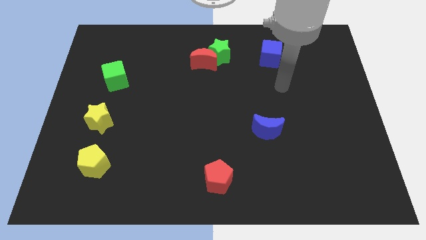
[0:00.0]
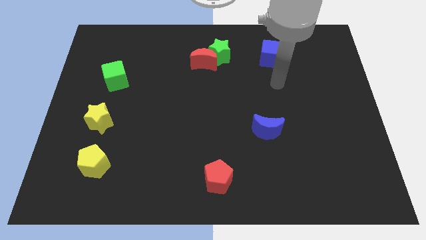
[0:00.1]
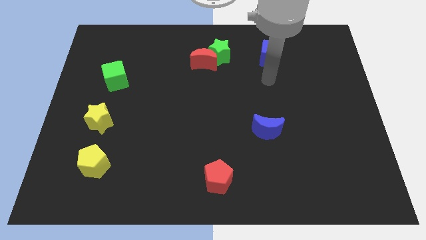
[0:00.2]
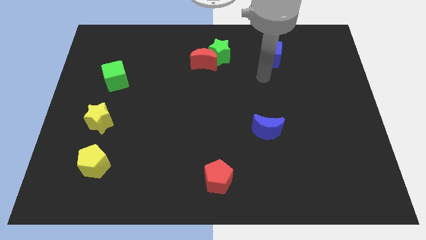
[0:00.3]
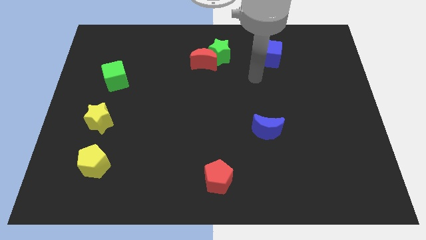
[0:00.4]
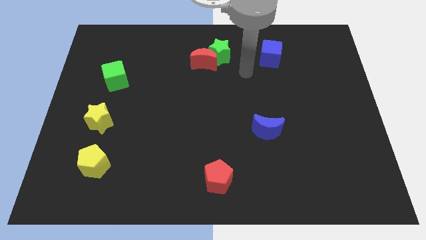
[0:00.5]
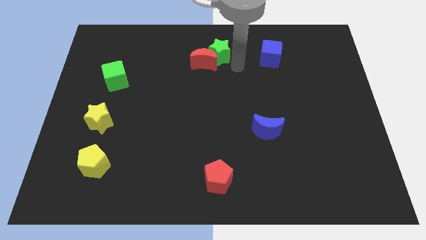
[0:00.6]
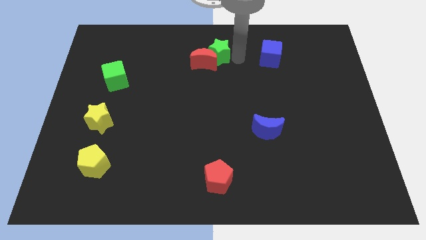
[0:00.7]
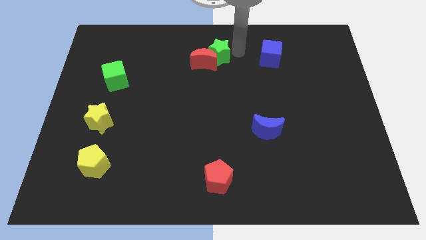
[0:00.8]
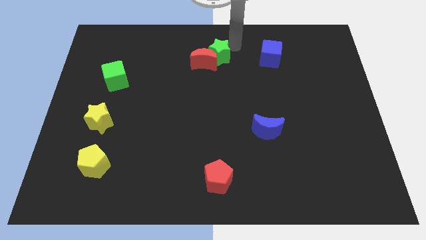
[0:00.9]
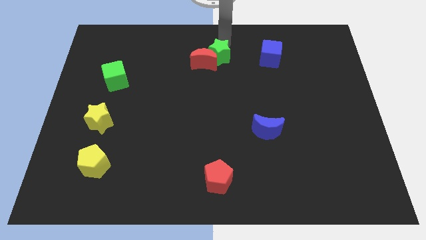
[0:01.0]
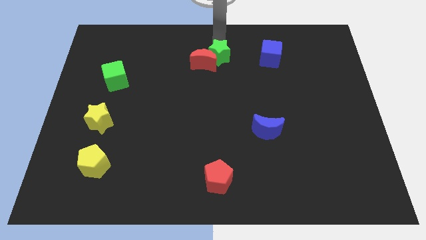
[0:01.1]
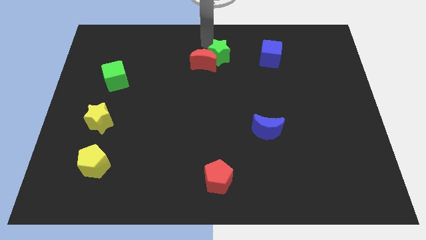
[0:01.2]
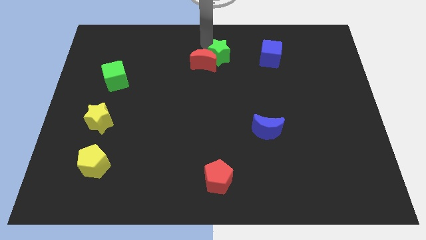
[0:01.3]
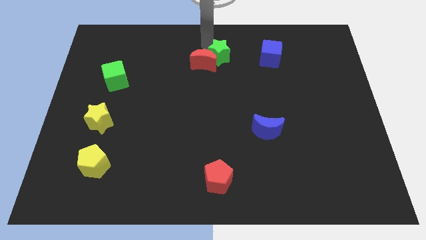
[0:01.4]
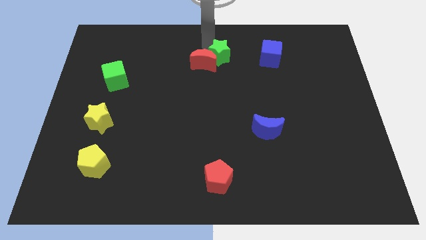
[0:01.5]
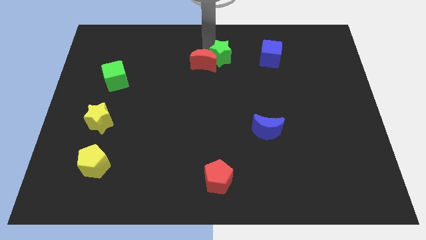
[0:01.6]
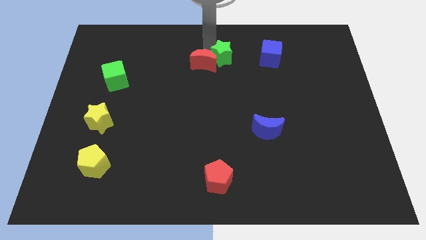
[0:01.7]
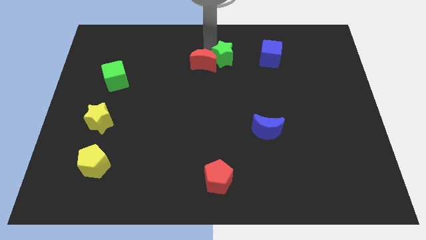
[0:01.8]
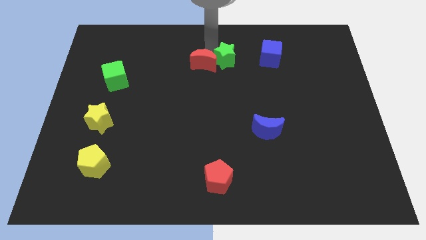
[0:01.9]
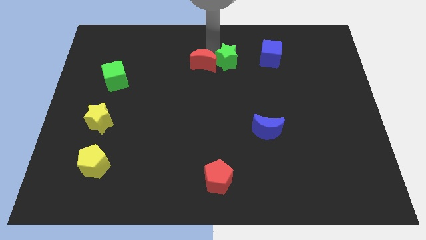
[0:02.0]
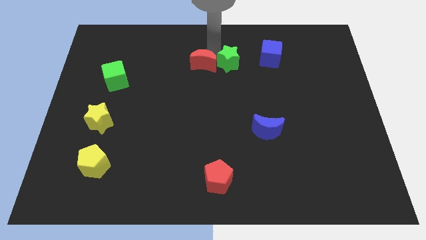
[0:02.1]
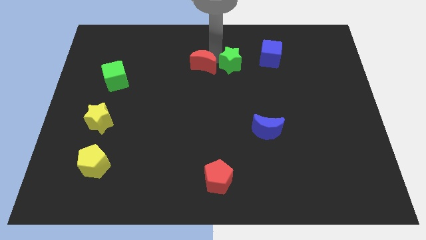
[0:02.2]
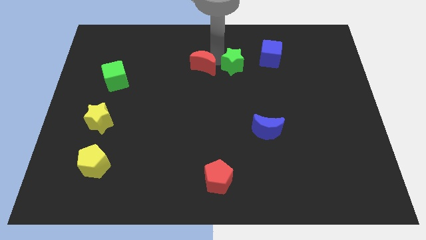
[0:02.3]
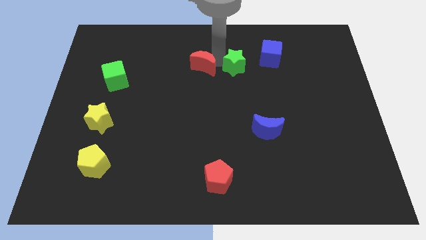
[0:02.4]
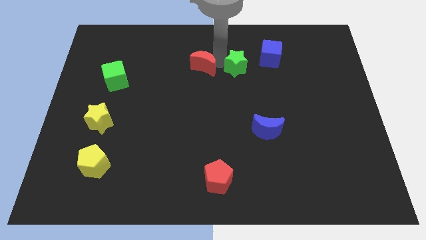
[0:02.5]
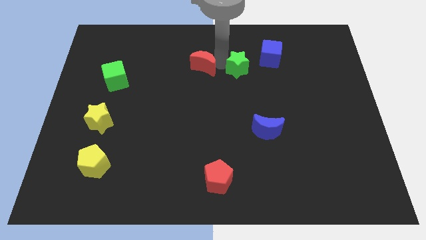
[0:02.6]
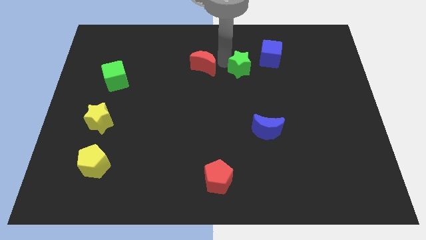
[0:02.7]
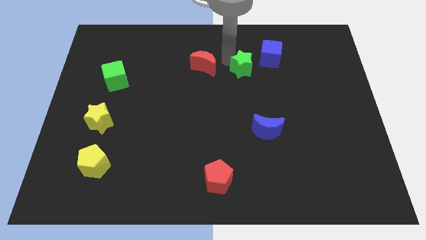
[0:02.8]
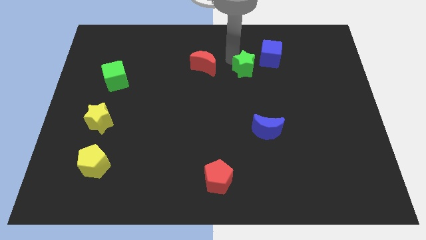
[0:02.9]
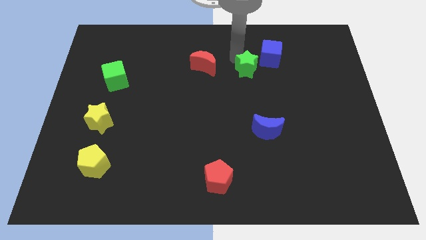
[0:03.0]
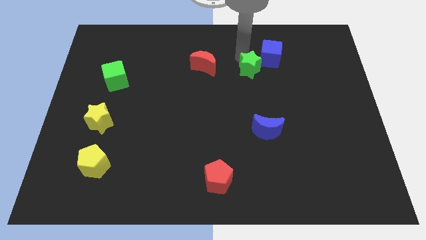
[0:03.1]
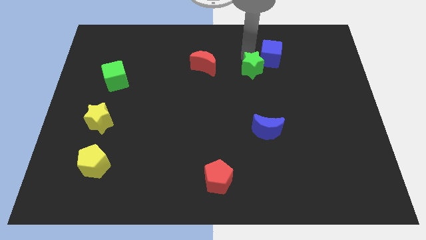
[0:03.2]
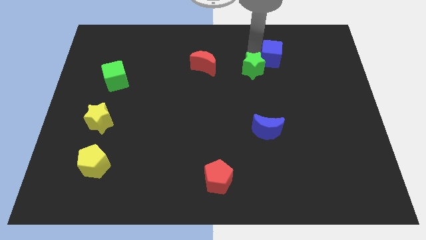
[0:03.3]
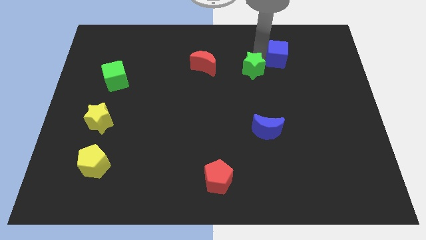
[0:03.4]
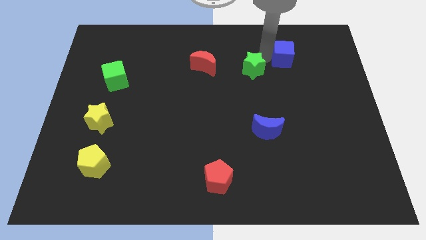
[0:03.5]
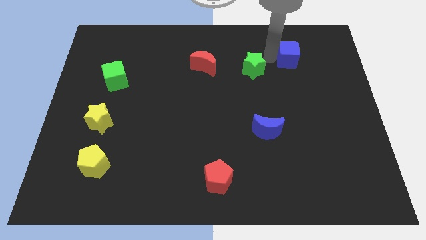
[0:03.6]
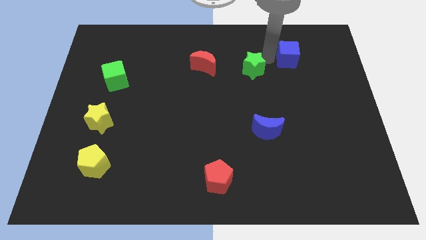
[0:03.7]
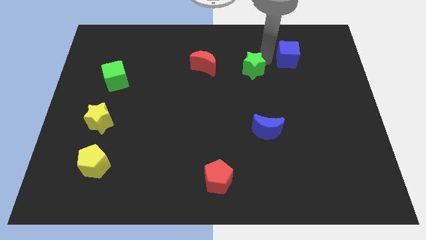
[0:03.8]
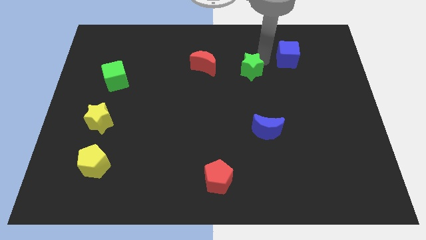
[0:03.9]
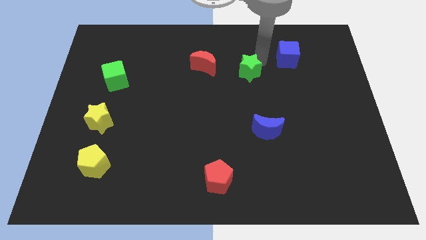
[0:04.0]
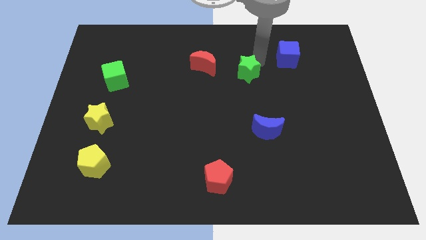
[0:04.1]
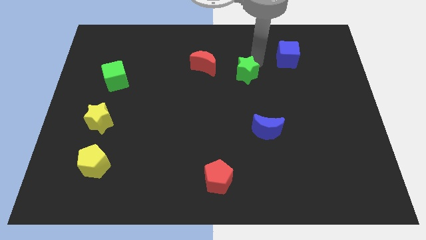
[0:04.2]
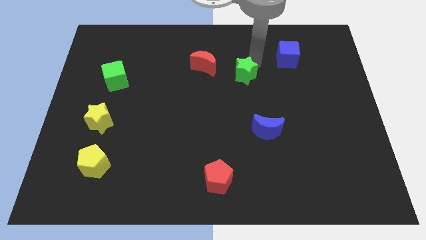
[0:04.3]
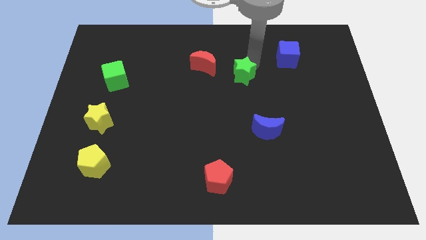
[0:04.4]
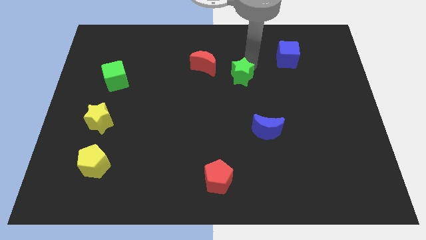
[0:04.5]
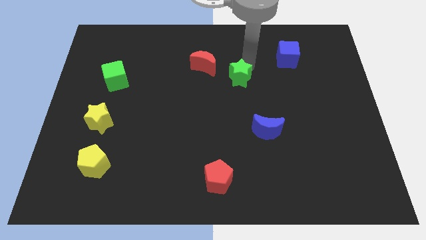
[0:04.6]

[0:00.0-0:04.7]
move the green star slightly down

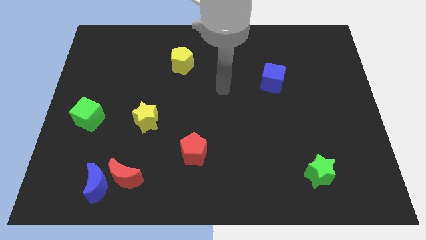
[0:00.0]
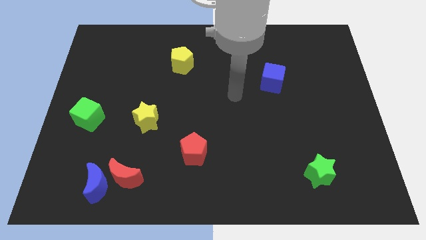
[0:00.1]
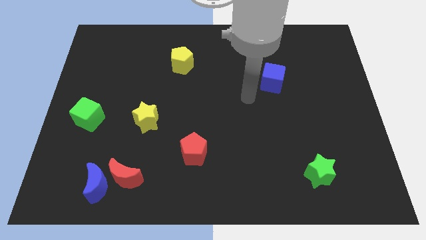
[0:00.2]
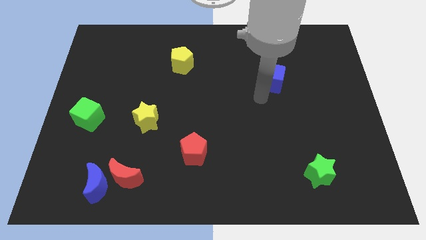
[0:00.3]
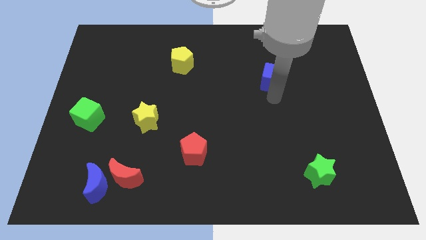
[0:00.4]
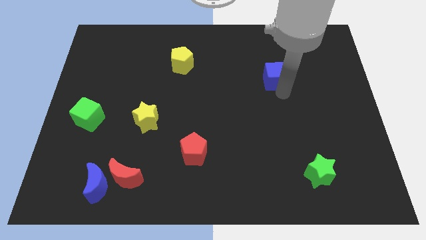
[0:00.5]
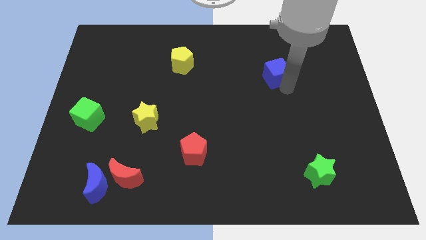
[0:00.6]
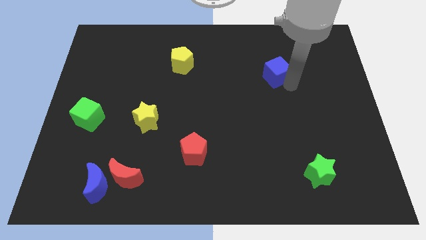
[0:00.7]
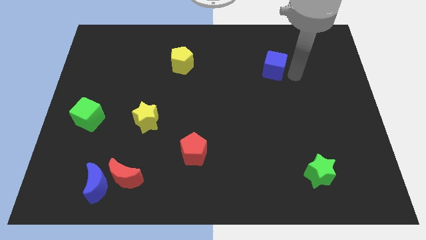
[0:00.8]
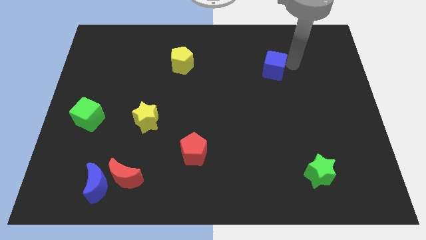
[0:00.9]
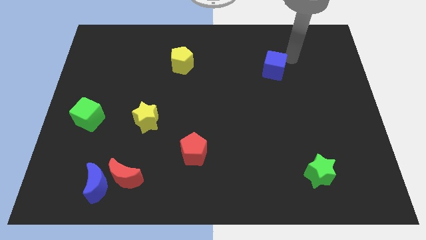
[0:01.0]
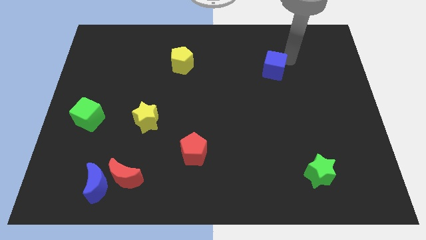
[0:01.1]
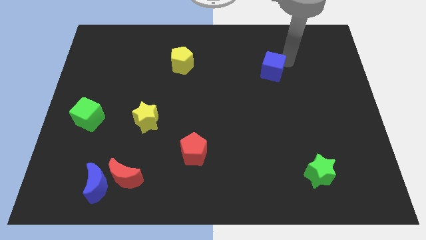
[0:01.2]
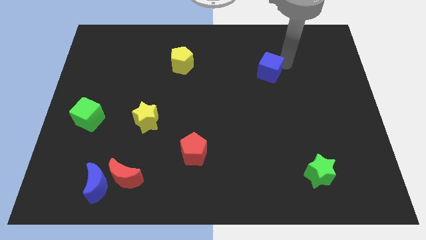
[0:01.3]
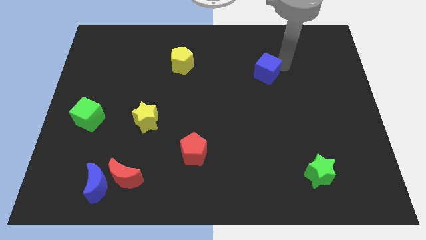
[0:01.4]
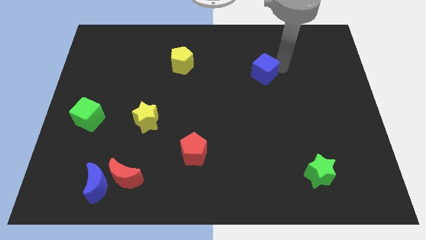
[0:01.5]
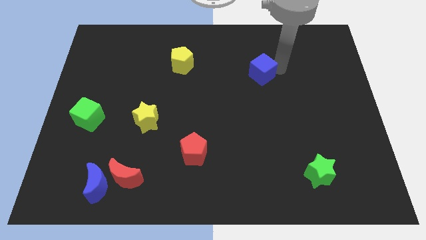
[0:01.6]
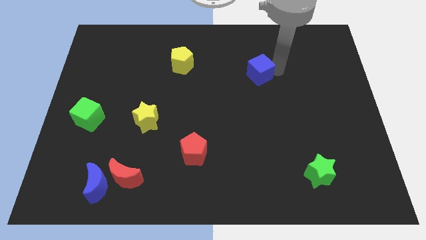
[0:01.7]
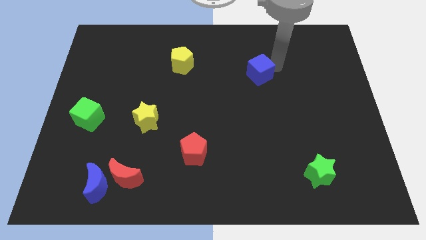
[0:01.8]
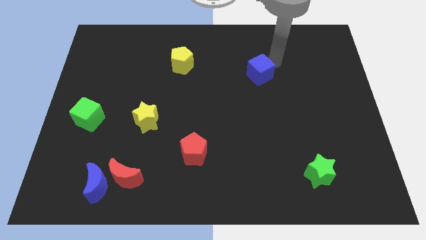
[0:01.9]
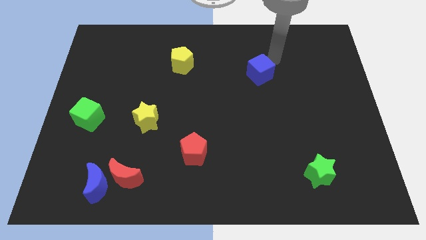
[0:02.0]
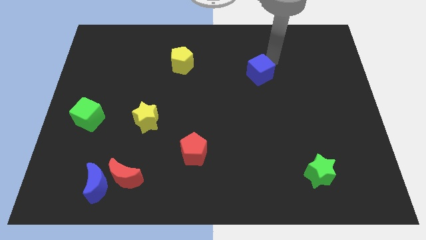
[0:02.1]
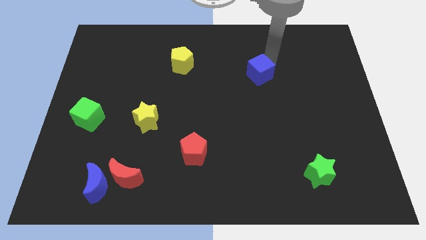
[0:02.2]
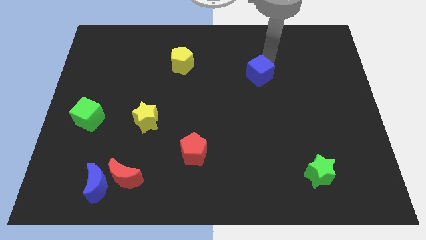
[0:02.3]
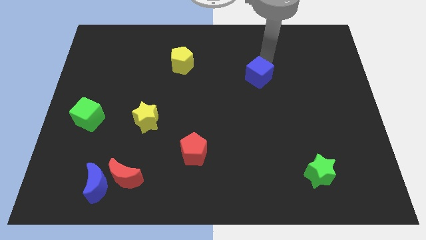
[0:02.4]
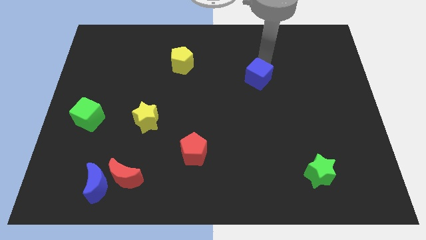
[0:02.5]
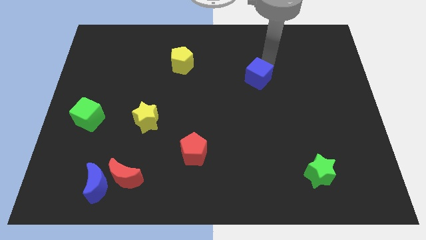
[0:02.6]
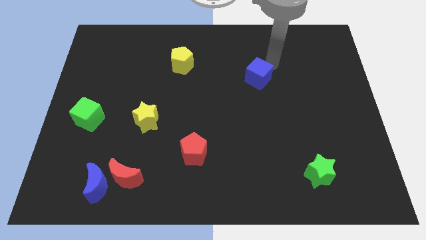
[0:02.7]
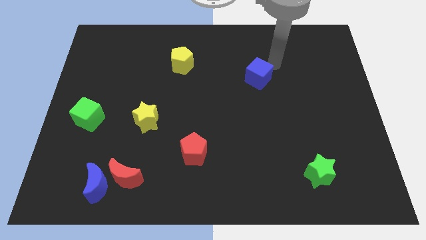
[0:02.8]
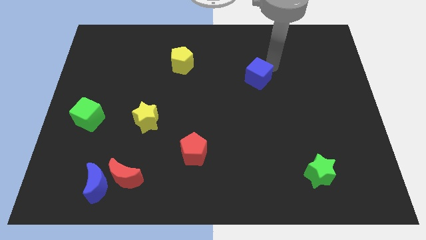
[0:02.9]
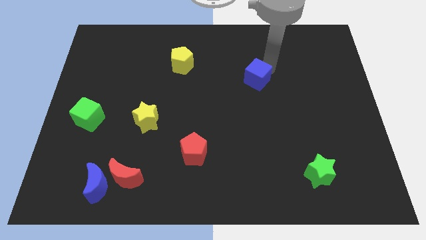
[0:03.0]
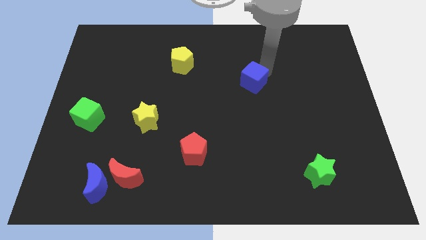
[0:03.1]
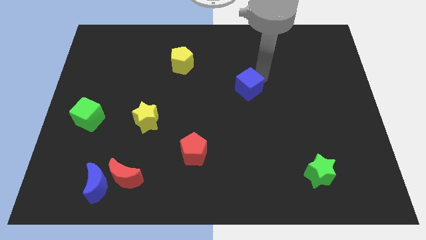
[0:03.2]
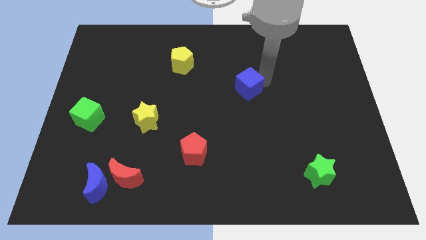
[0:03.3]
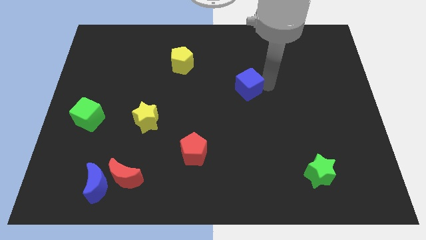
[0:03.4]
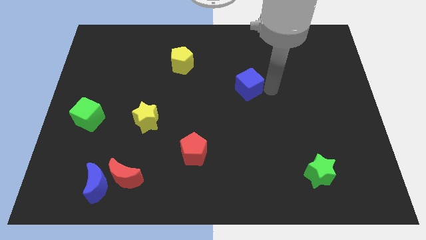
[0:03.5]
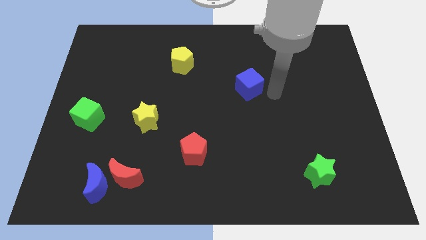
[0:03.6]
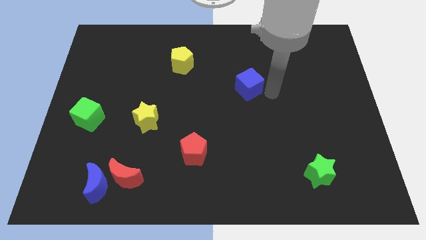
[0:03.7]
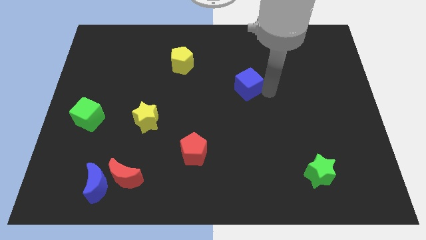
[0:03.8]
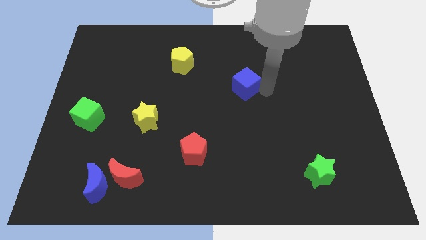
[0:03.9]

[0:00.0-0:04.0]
move the blue cube somewhat left
